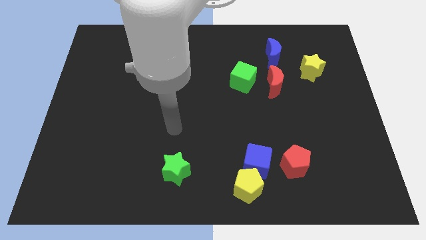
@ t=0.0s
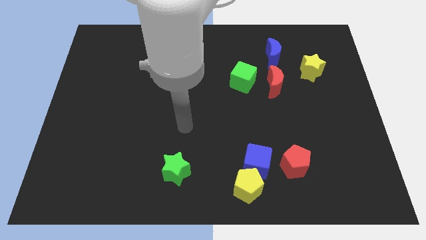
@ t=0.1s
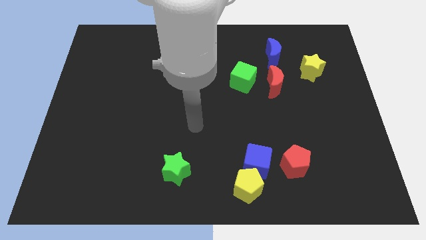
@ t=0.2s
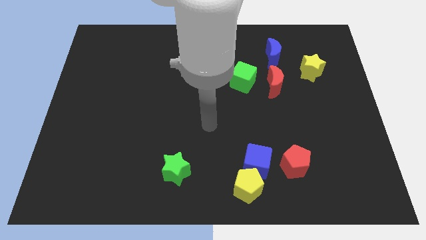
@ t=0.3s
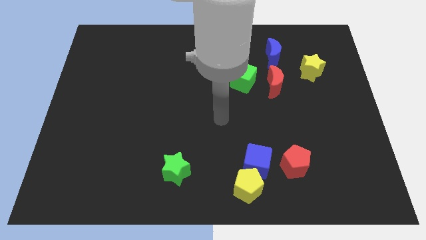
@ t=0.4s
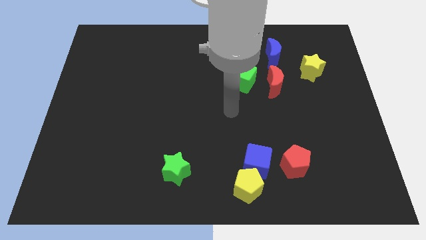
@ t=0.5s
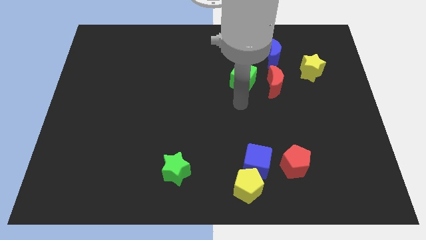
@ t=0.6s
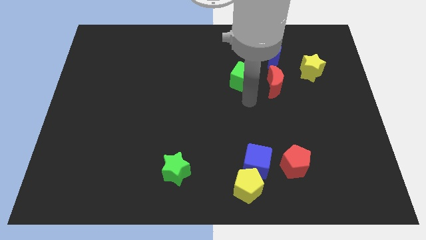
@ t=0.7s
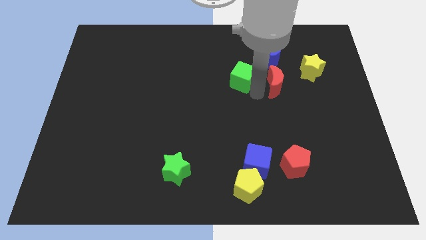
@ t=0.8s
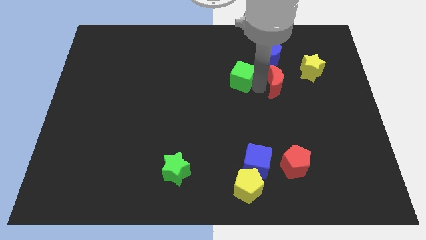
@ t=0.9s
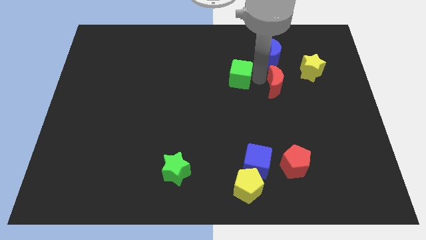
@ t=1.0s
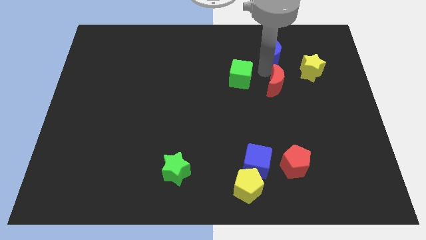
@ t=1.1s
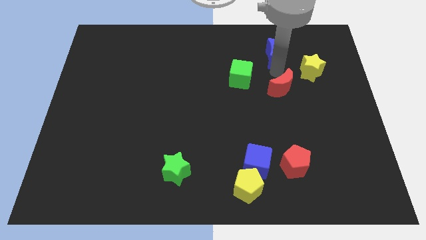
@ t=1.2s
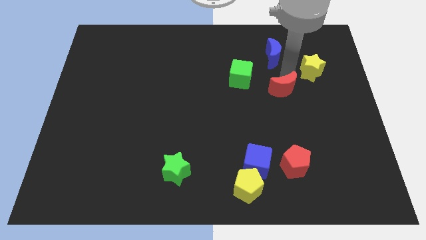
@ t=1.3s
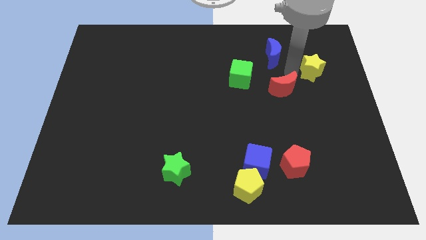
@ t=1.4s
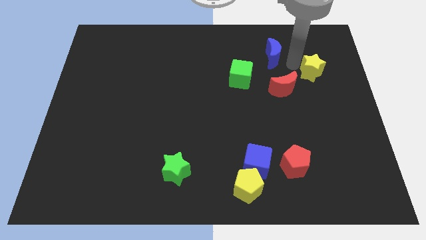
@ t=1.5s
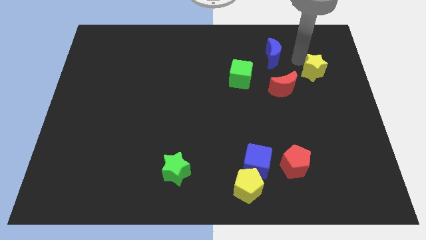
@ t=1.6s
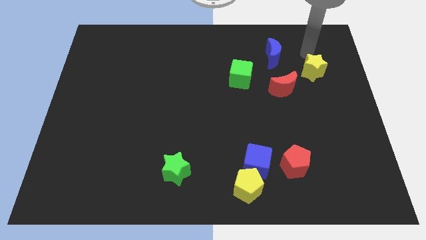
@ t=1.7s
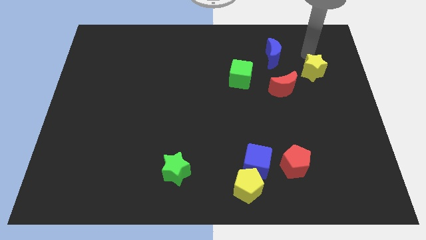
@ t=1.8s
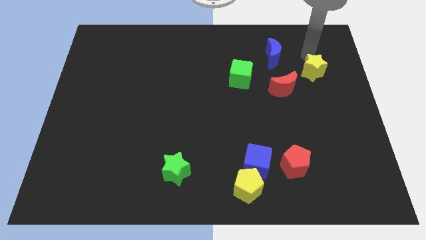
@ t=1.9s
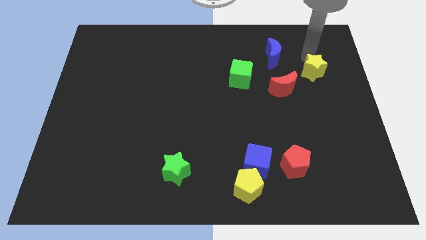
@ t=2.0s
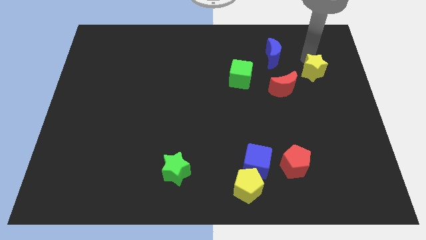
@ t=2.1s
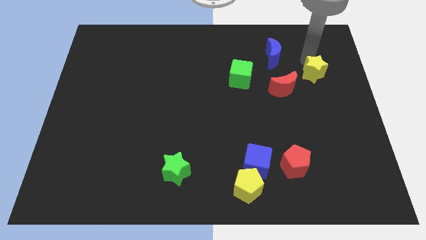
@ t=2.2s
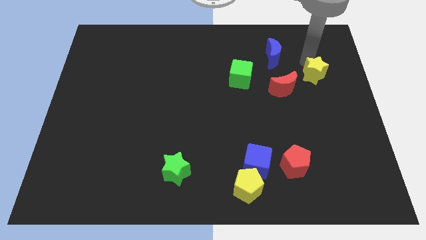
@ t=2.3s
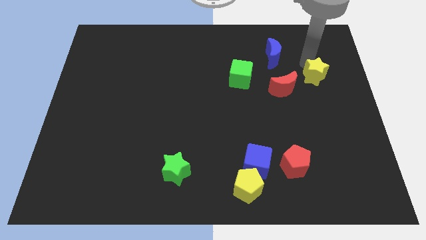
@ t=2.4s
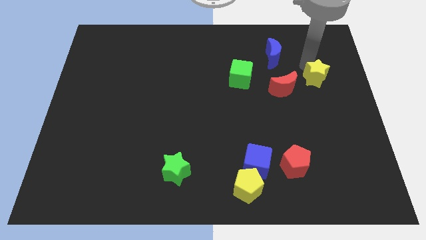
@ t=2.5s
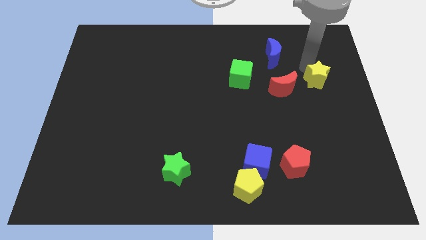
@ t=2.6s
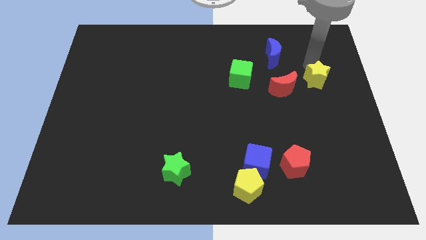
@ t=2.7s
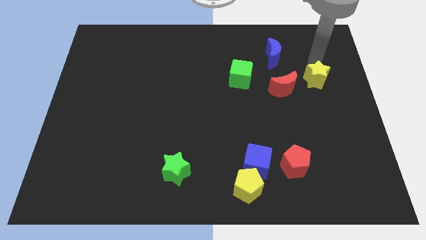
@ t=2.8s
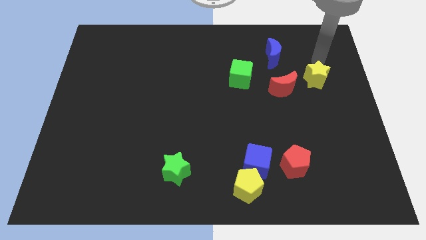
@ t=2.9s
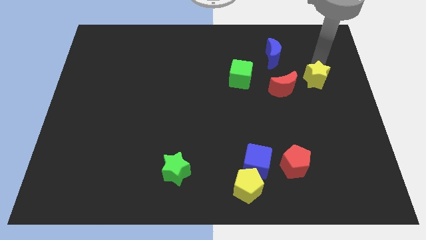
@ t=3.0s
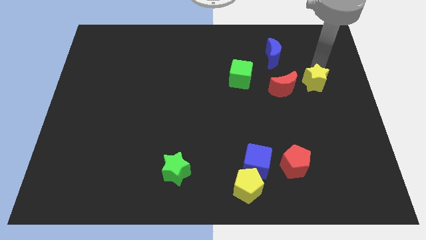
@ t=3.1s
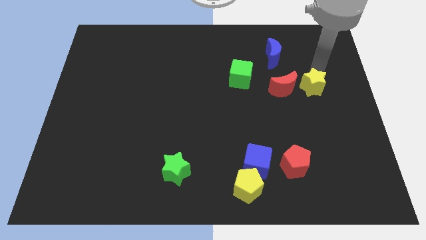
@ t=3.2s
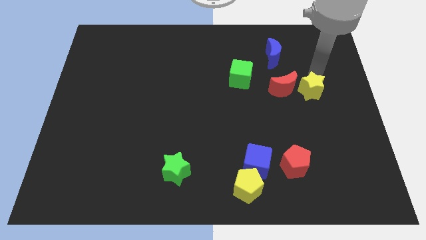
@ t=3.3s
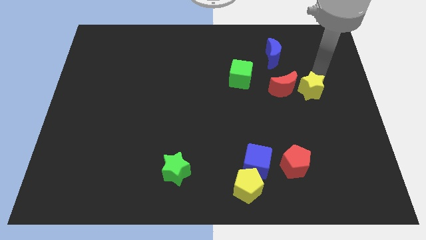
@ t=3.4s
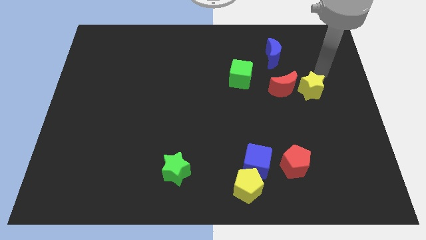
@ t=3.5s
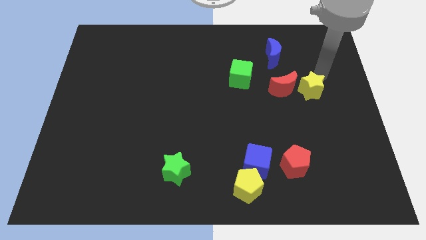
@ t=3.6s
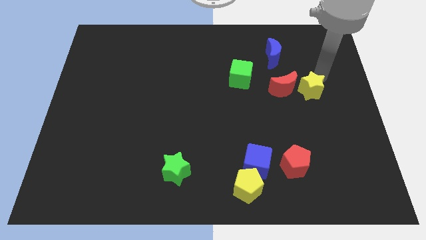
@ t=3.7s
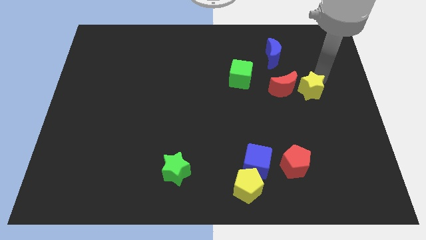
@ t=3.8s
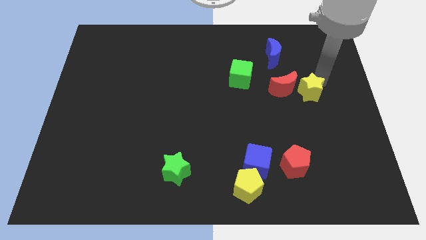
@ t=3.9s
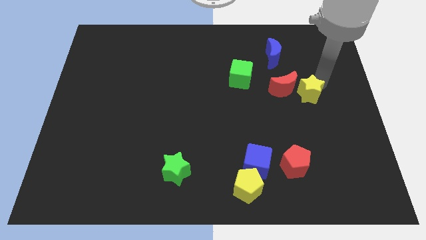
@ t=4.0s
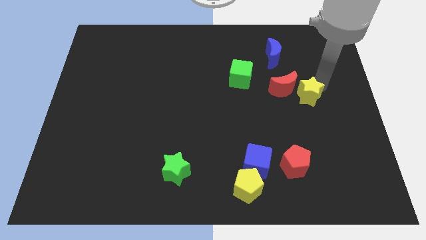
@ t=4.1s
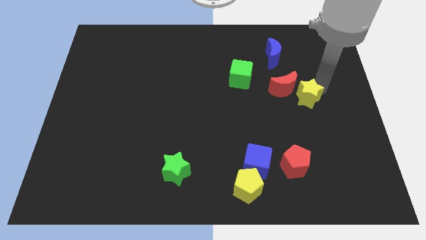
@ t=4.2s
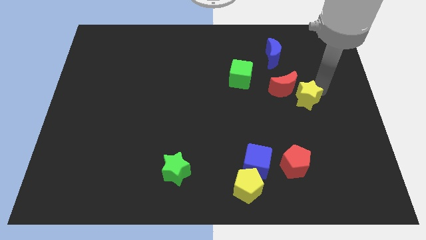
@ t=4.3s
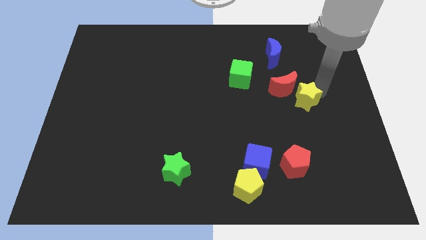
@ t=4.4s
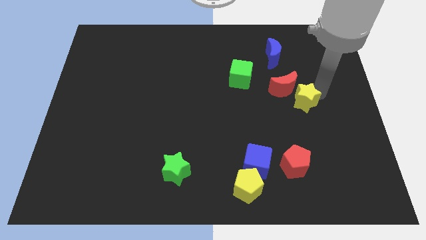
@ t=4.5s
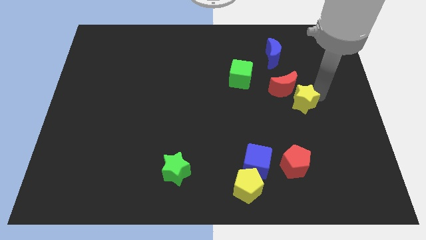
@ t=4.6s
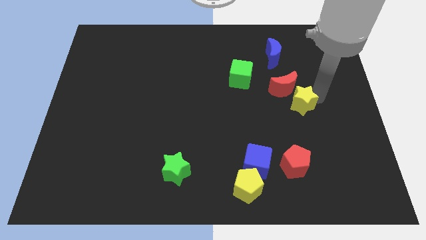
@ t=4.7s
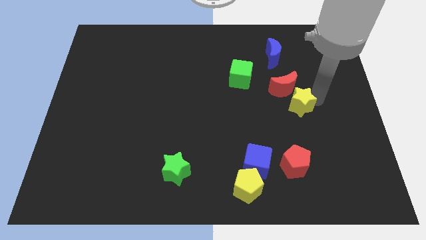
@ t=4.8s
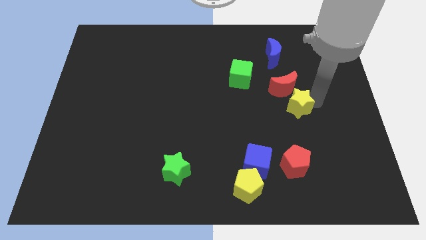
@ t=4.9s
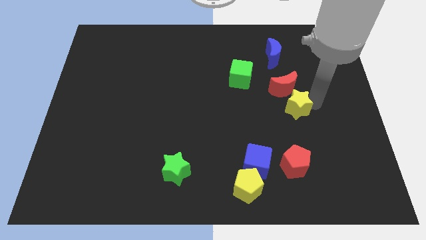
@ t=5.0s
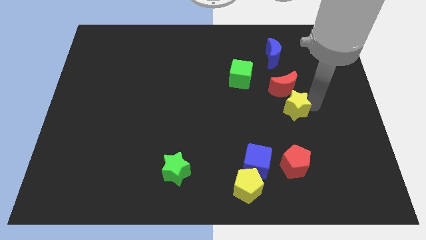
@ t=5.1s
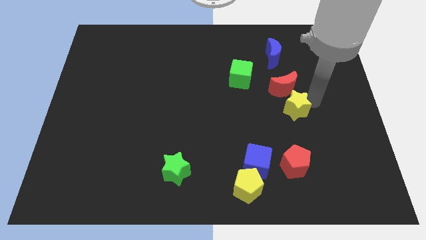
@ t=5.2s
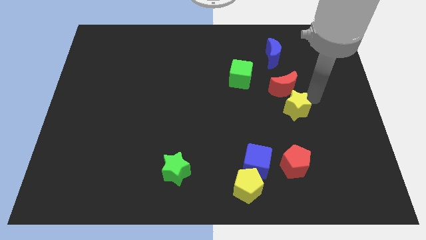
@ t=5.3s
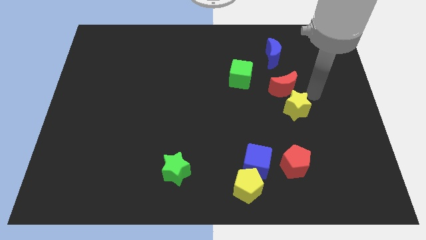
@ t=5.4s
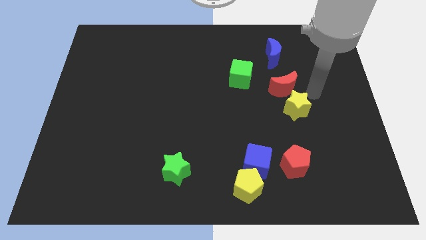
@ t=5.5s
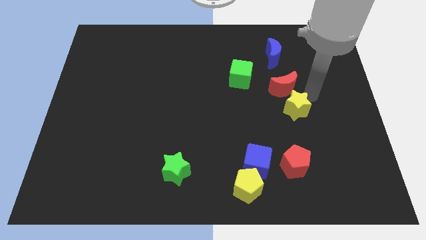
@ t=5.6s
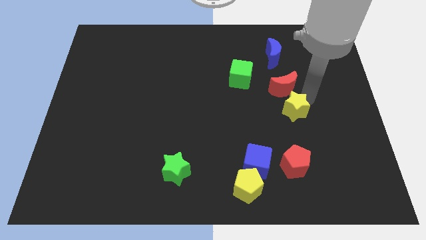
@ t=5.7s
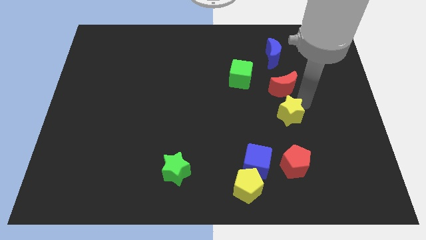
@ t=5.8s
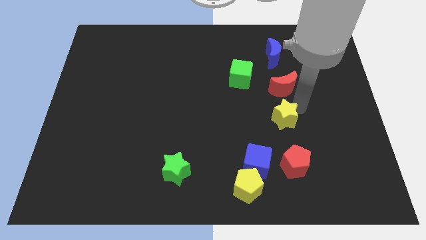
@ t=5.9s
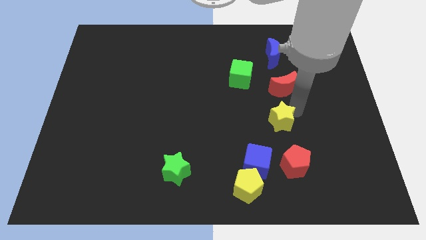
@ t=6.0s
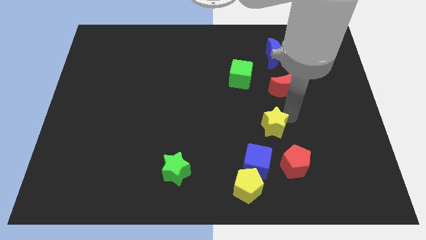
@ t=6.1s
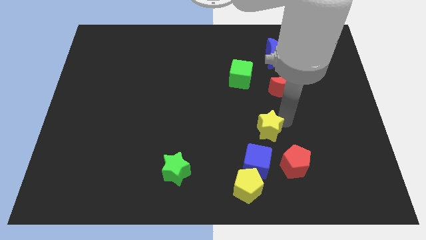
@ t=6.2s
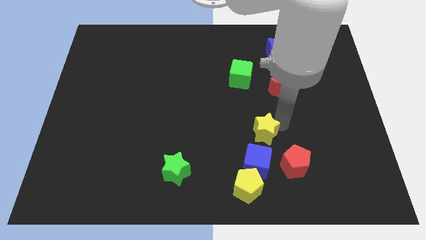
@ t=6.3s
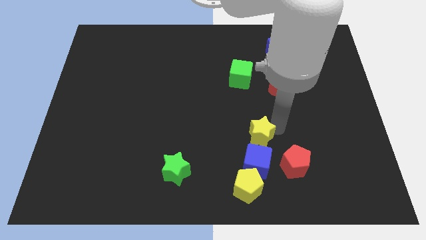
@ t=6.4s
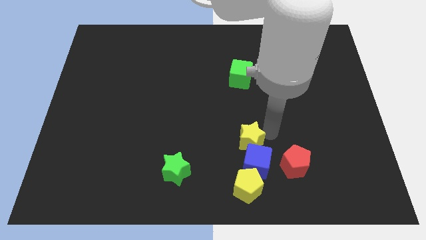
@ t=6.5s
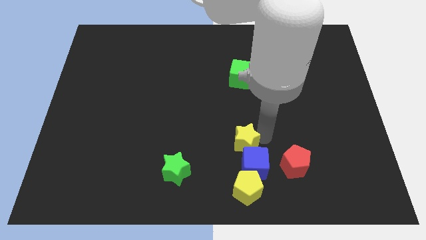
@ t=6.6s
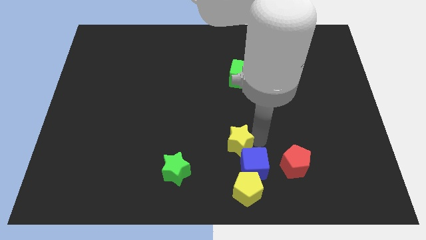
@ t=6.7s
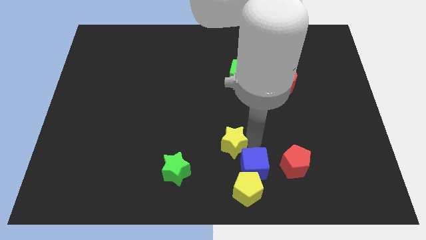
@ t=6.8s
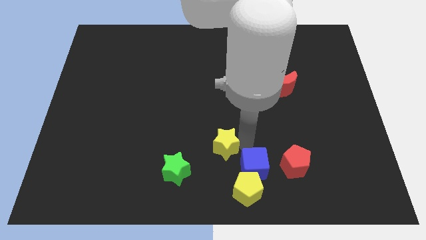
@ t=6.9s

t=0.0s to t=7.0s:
move the yellow star to the top right of the green star
